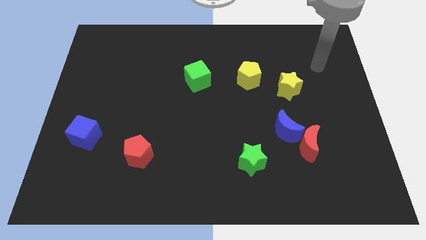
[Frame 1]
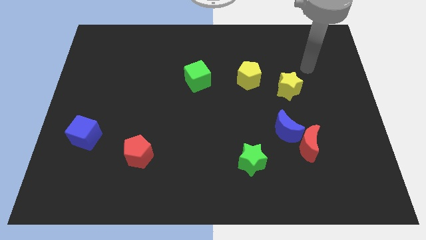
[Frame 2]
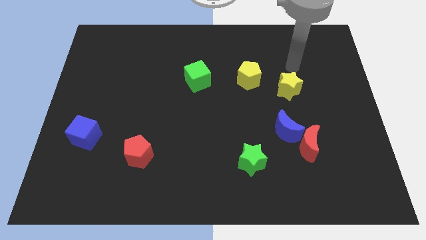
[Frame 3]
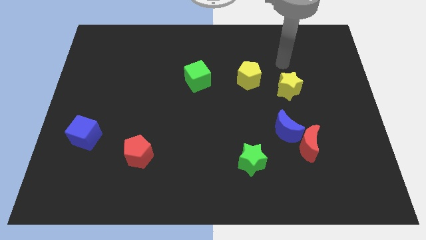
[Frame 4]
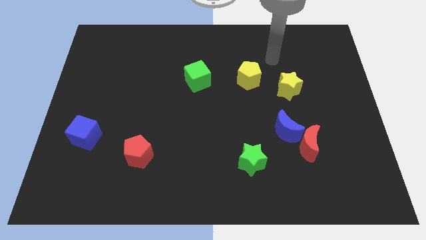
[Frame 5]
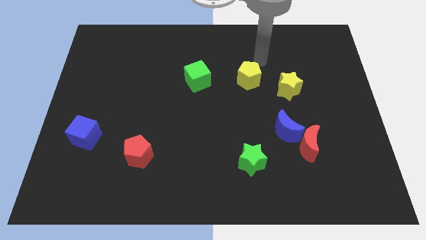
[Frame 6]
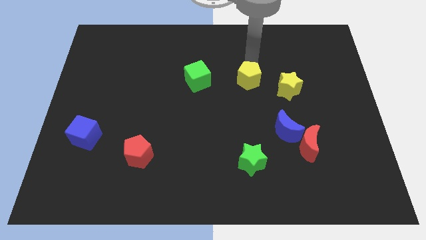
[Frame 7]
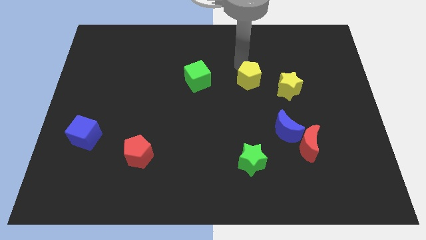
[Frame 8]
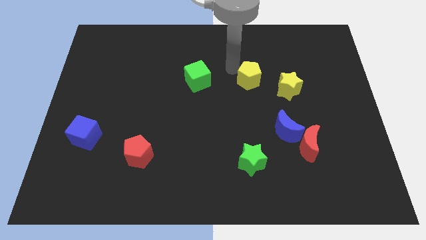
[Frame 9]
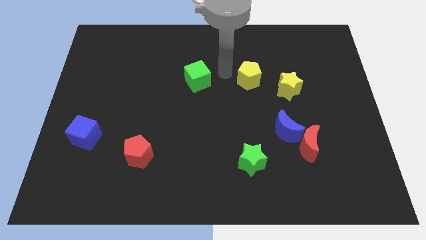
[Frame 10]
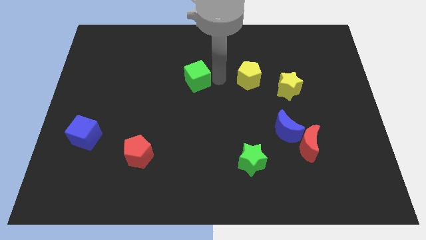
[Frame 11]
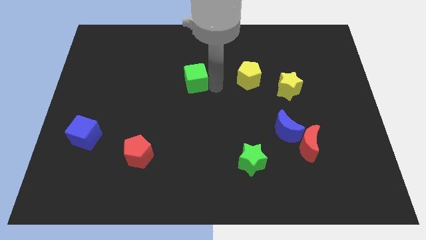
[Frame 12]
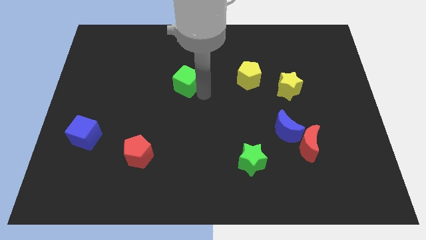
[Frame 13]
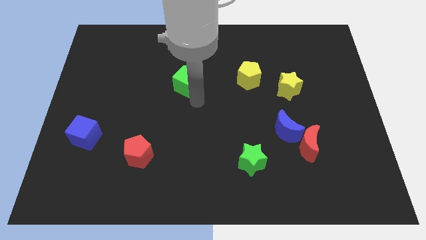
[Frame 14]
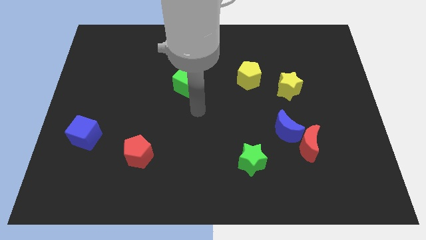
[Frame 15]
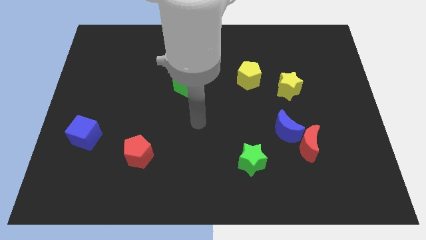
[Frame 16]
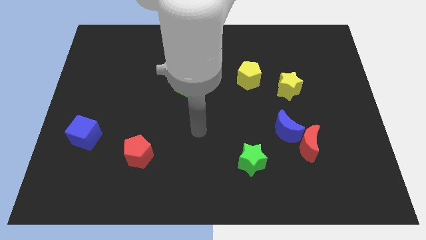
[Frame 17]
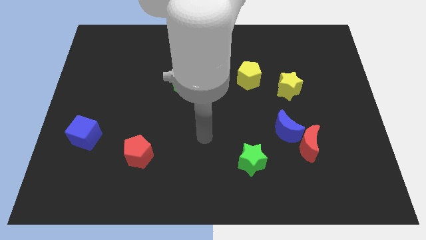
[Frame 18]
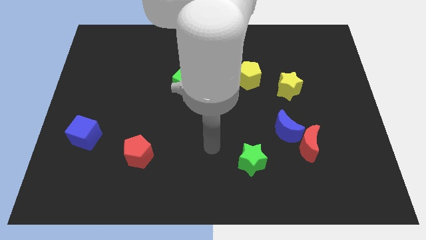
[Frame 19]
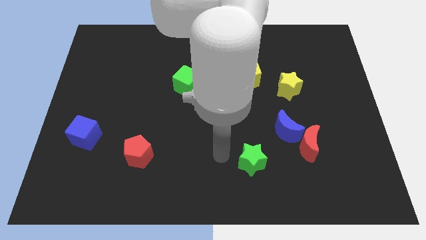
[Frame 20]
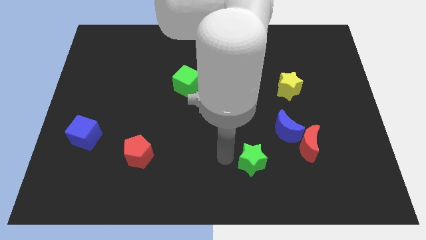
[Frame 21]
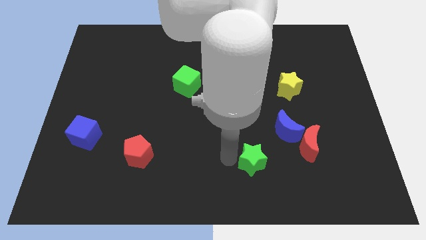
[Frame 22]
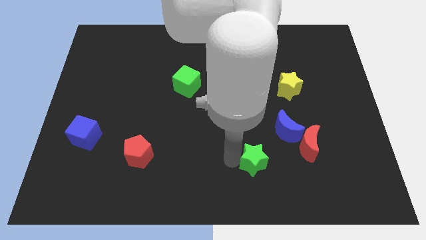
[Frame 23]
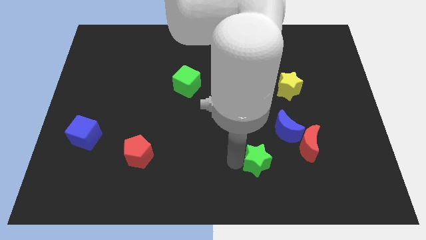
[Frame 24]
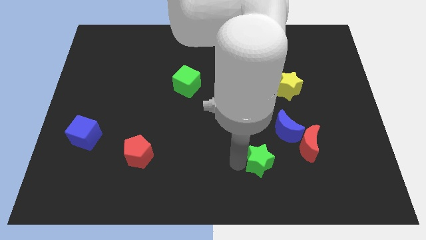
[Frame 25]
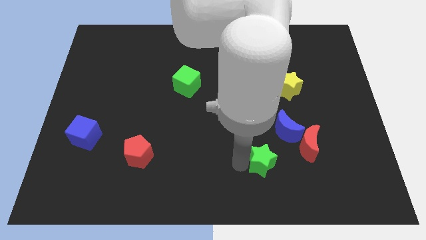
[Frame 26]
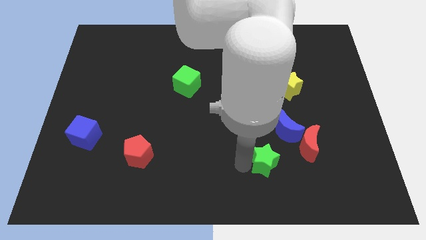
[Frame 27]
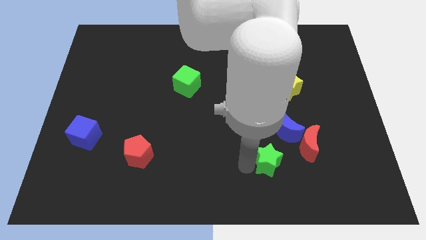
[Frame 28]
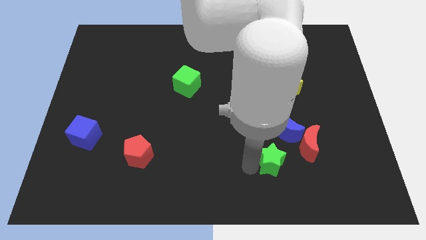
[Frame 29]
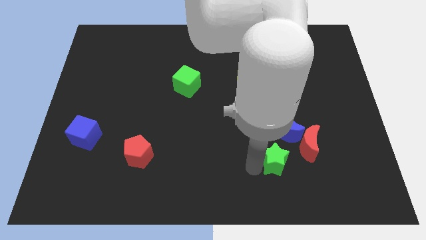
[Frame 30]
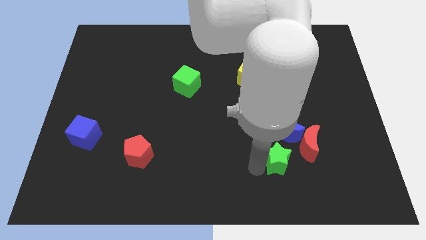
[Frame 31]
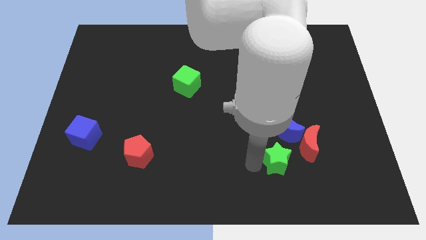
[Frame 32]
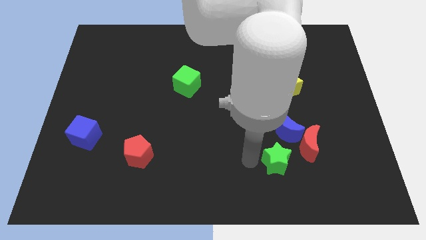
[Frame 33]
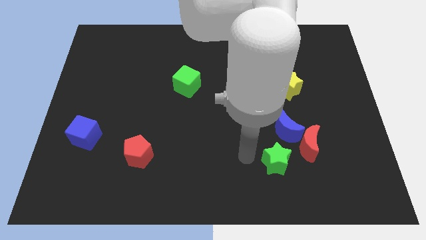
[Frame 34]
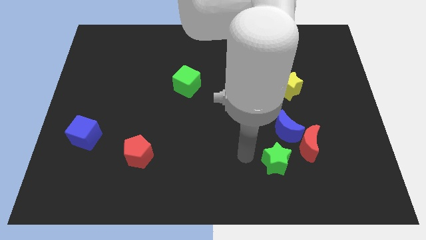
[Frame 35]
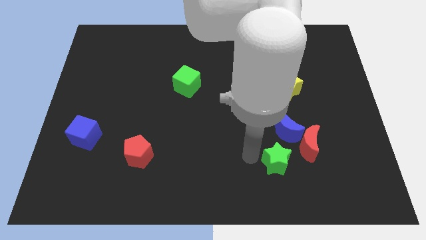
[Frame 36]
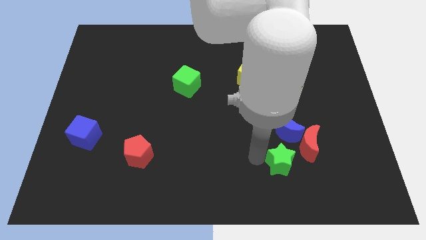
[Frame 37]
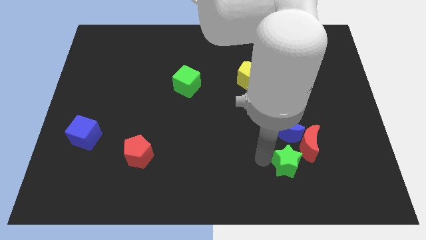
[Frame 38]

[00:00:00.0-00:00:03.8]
move the green star to the right a little bit

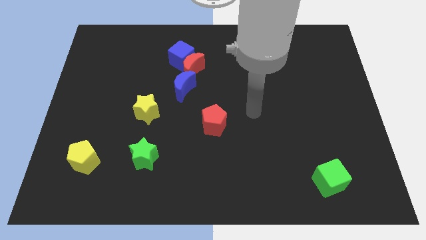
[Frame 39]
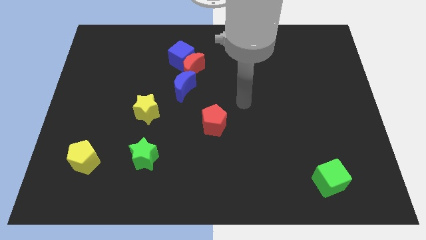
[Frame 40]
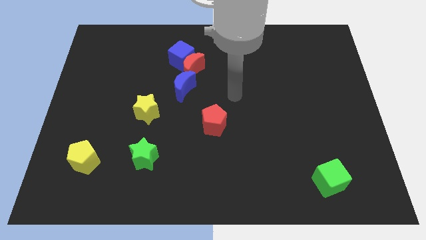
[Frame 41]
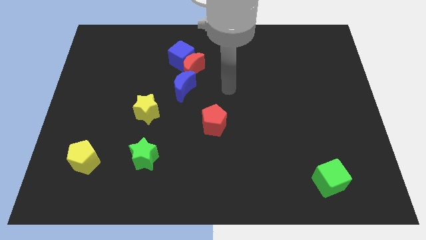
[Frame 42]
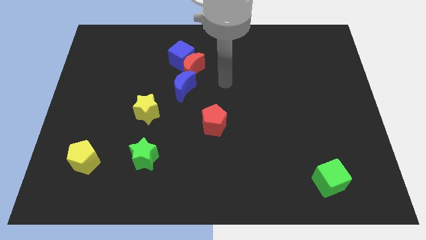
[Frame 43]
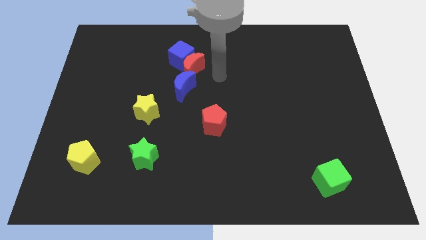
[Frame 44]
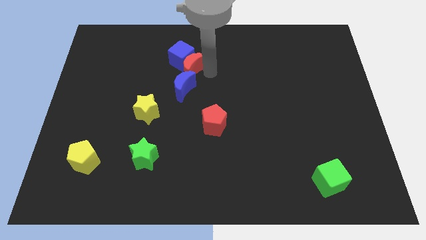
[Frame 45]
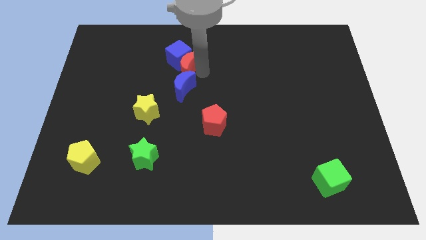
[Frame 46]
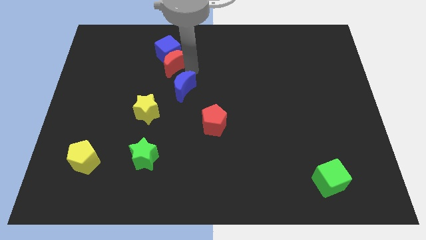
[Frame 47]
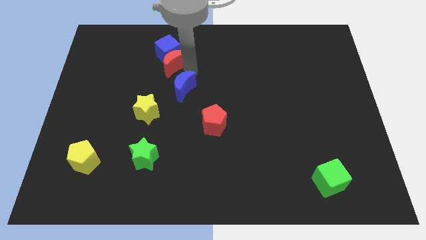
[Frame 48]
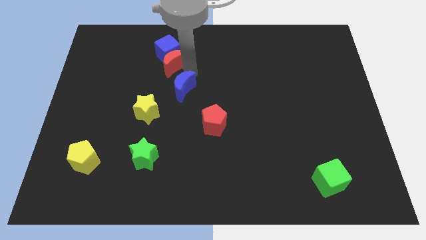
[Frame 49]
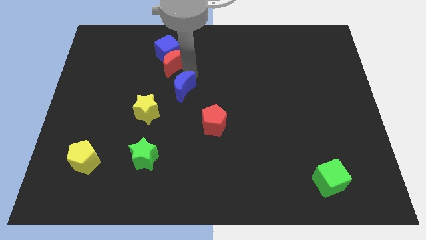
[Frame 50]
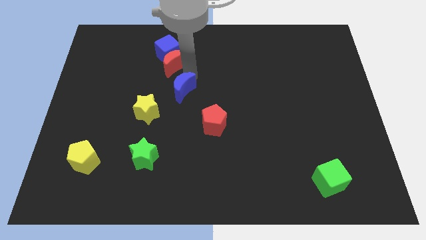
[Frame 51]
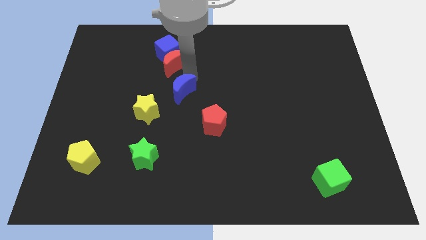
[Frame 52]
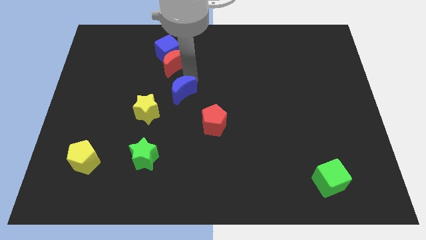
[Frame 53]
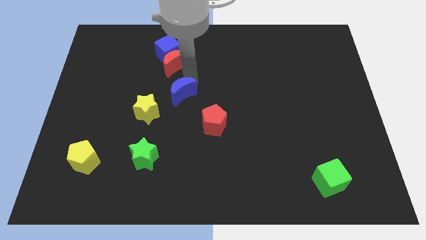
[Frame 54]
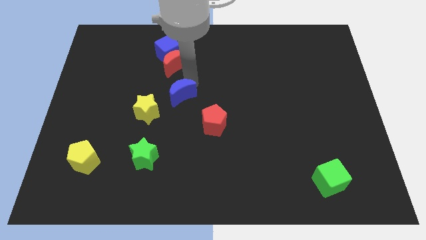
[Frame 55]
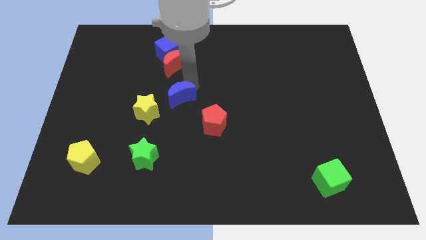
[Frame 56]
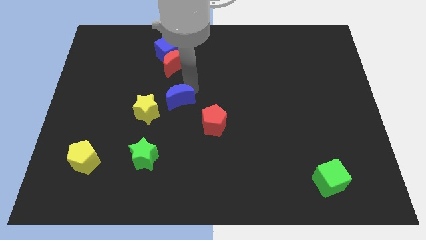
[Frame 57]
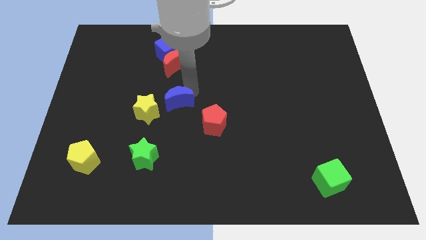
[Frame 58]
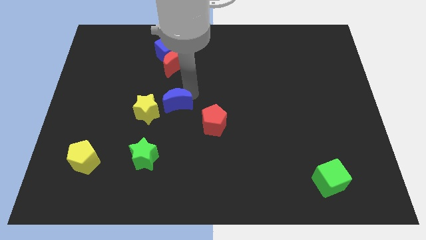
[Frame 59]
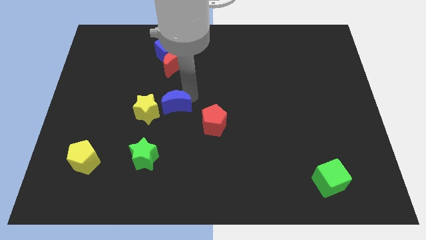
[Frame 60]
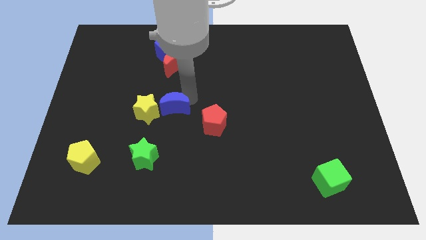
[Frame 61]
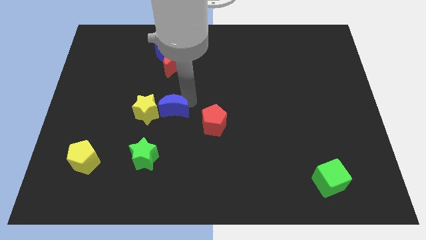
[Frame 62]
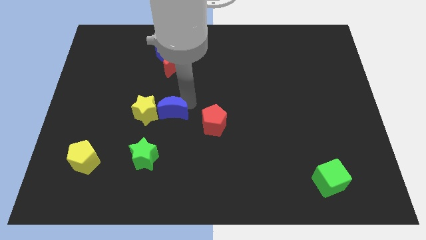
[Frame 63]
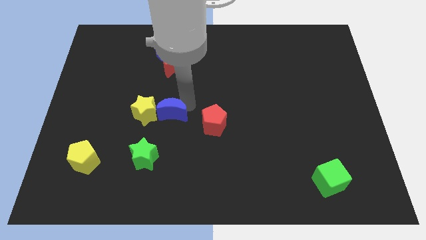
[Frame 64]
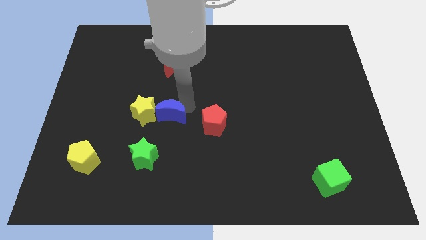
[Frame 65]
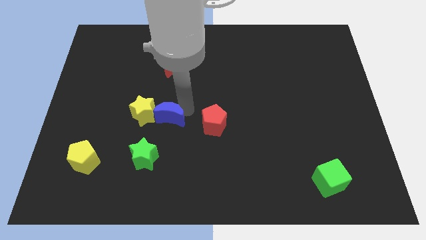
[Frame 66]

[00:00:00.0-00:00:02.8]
move the blue moon a little down and then to the left

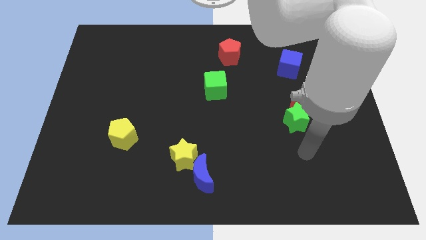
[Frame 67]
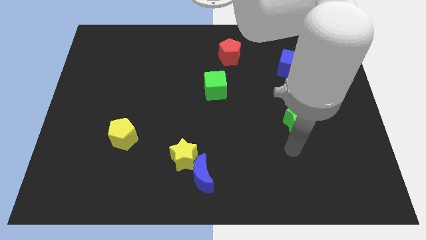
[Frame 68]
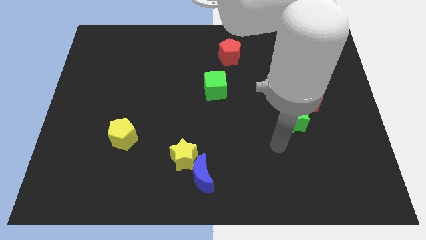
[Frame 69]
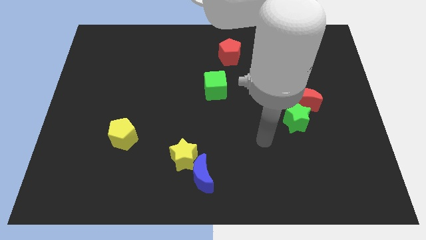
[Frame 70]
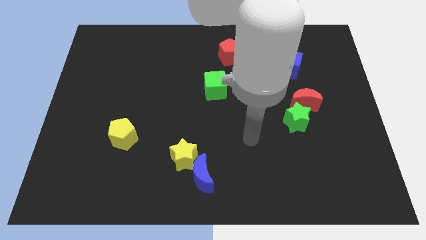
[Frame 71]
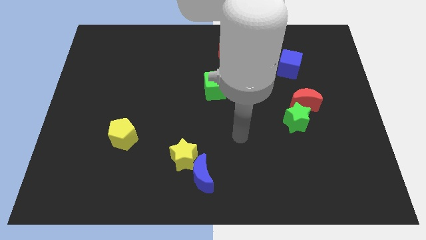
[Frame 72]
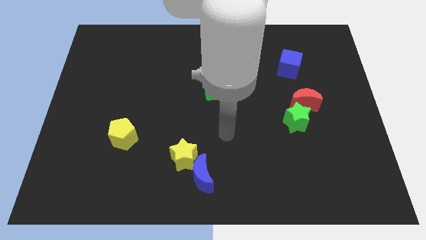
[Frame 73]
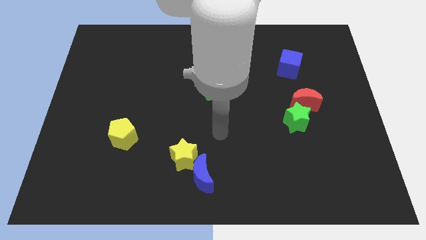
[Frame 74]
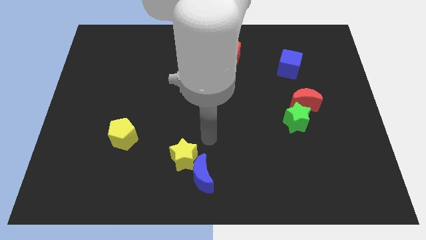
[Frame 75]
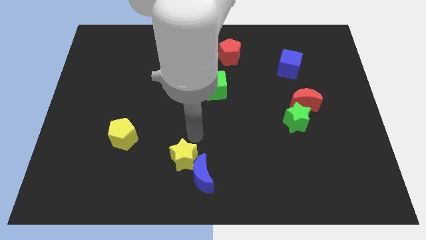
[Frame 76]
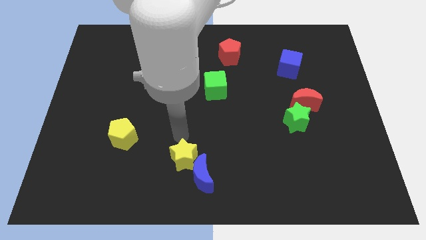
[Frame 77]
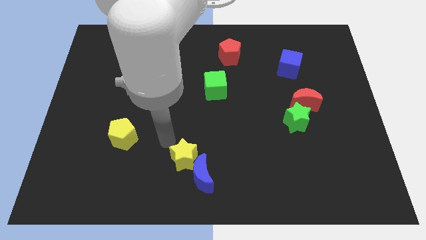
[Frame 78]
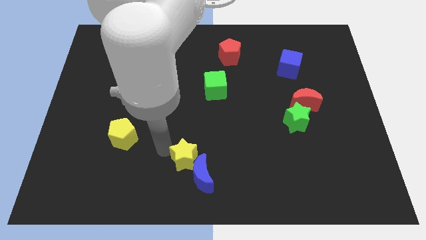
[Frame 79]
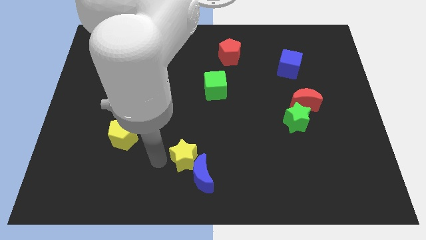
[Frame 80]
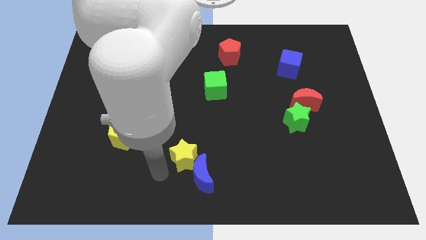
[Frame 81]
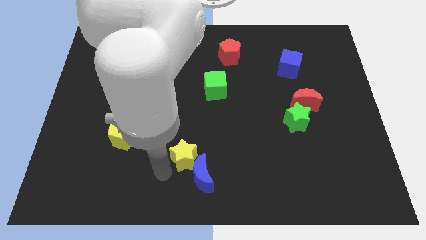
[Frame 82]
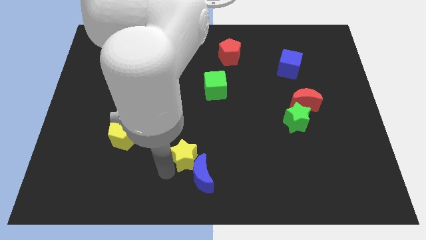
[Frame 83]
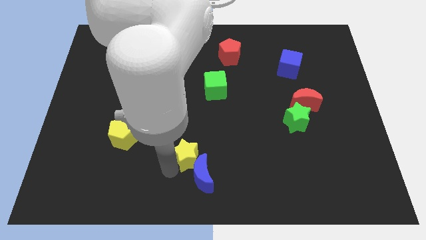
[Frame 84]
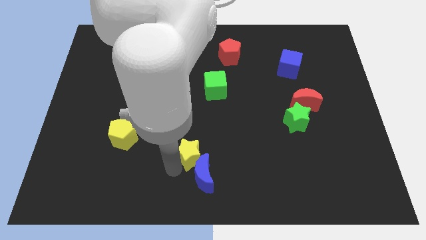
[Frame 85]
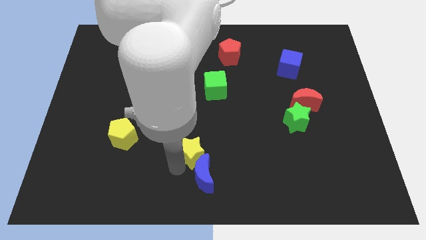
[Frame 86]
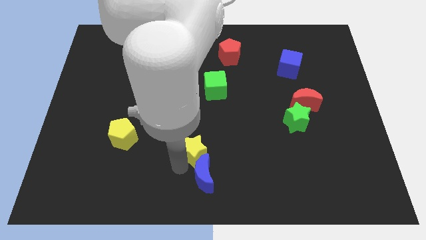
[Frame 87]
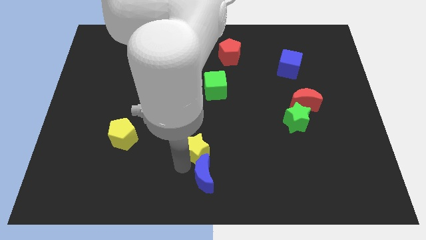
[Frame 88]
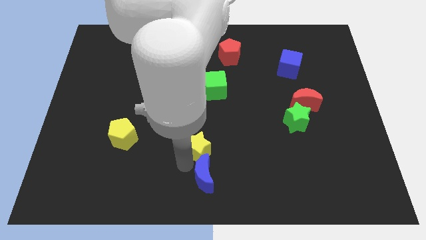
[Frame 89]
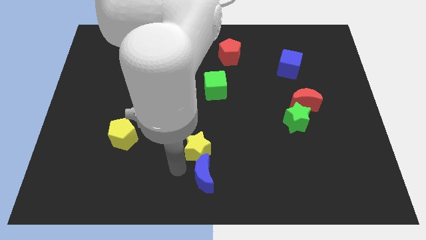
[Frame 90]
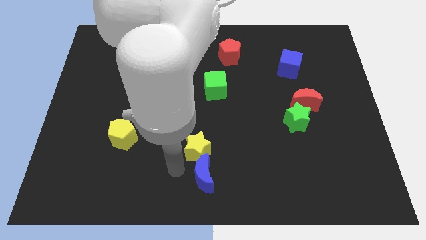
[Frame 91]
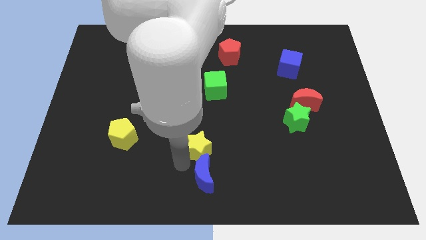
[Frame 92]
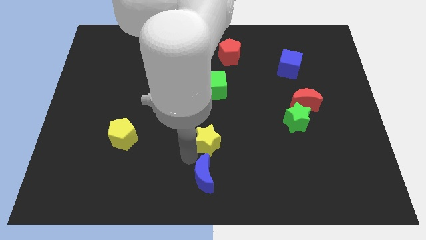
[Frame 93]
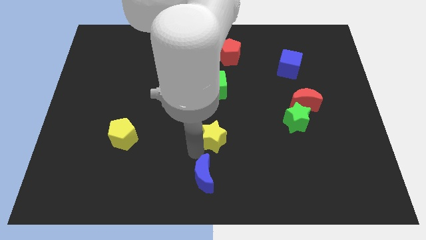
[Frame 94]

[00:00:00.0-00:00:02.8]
slightly slide the yellow star upwards and to the right
